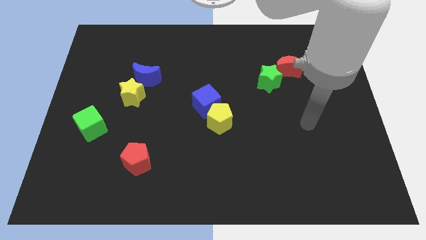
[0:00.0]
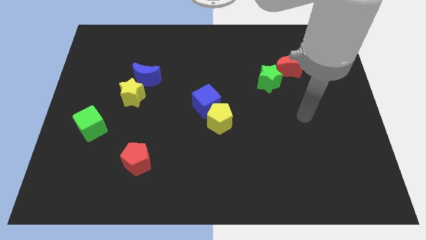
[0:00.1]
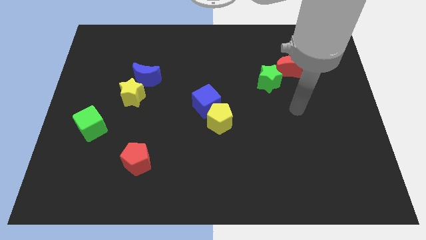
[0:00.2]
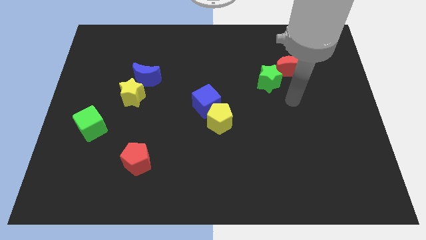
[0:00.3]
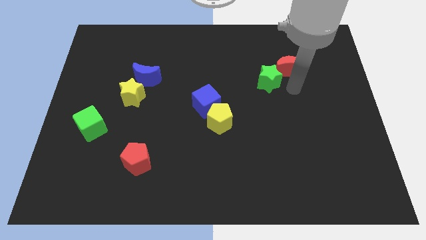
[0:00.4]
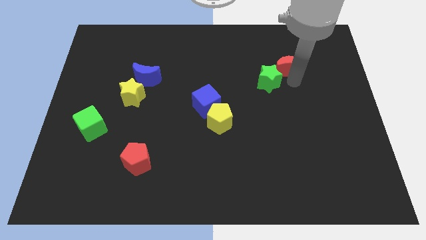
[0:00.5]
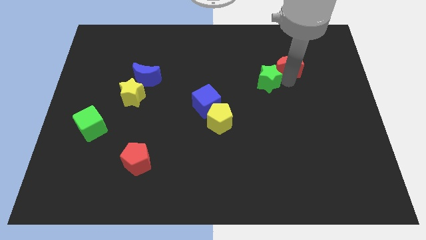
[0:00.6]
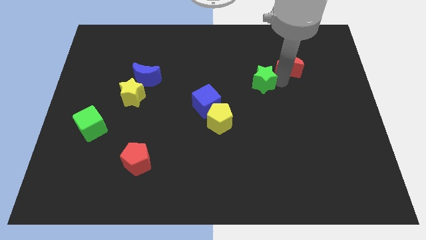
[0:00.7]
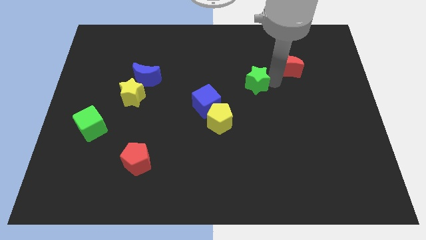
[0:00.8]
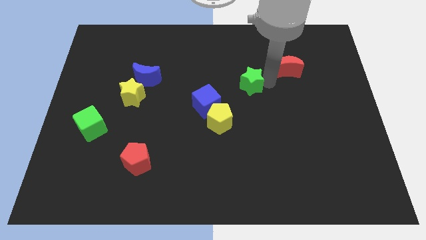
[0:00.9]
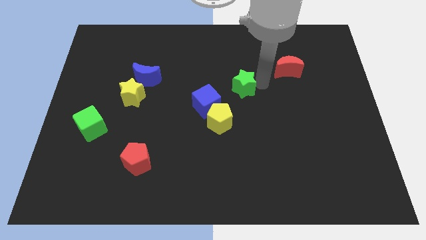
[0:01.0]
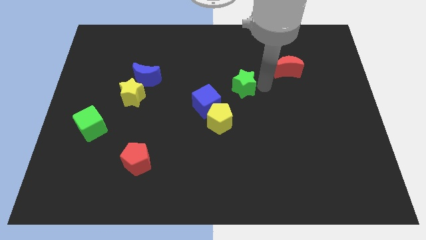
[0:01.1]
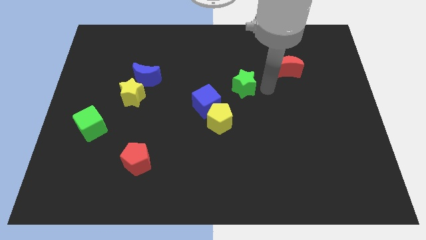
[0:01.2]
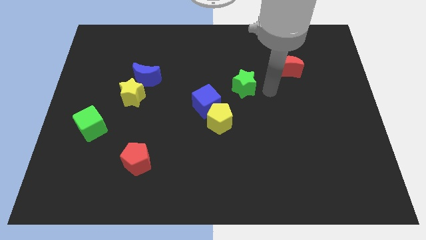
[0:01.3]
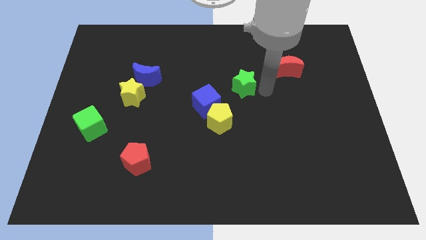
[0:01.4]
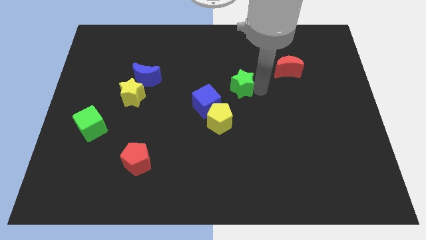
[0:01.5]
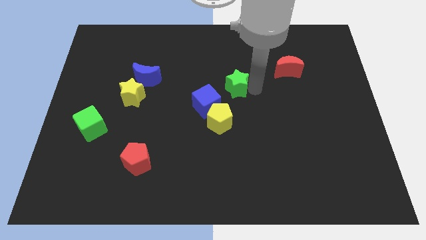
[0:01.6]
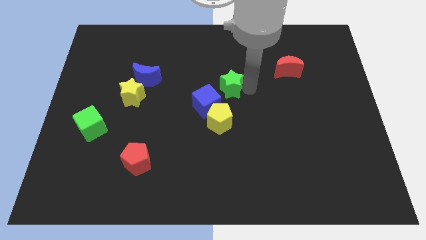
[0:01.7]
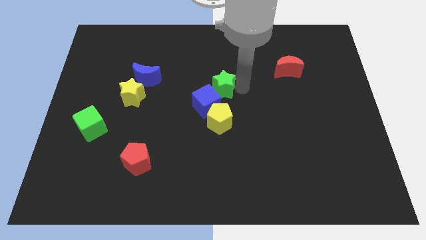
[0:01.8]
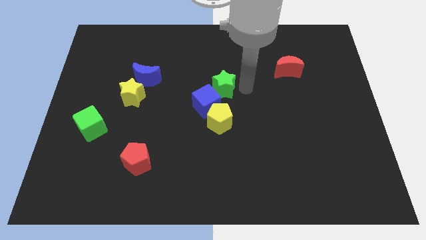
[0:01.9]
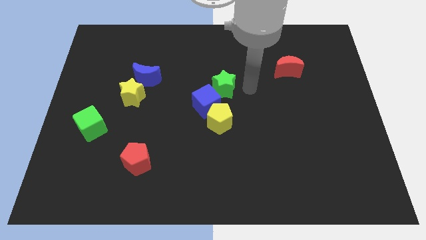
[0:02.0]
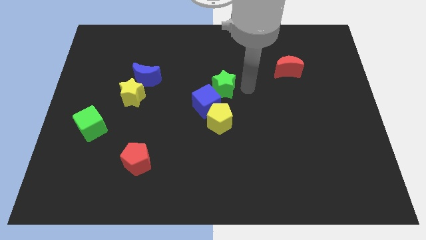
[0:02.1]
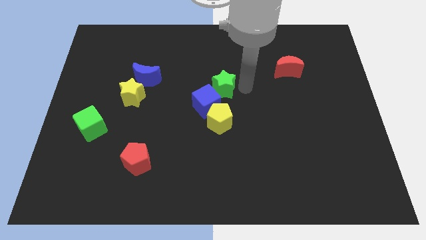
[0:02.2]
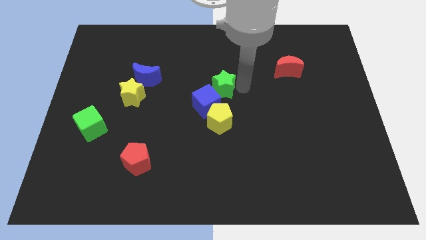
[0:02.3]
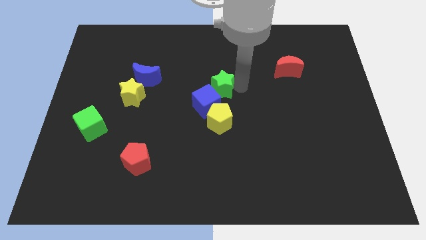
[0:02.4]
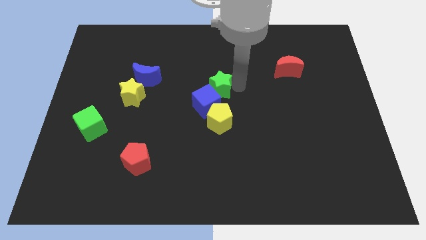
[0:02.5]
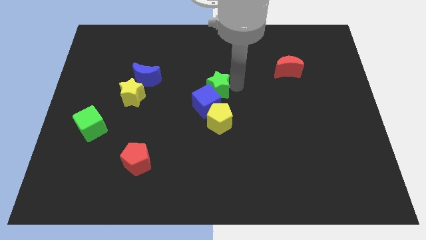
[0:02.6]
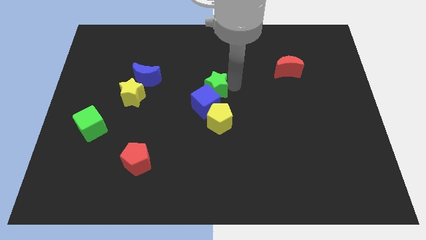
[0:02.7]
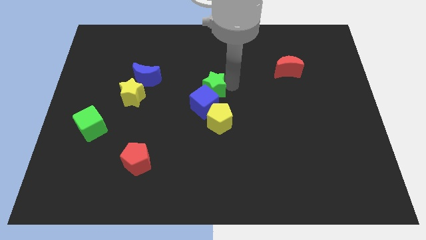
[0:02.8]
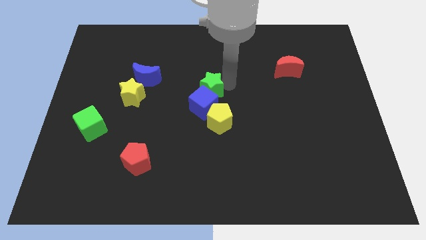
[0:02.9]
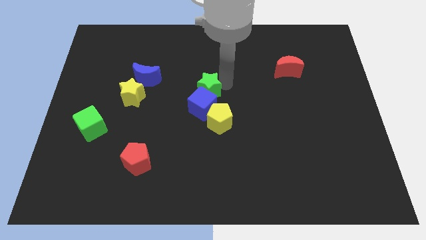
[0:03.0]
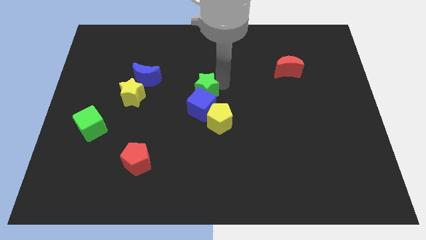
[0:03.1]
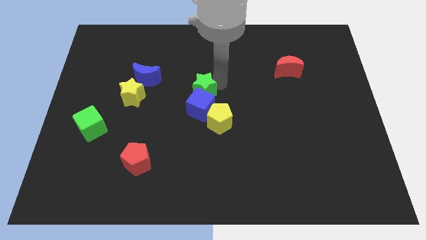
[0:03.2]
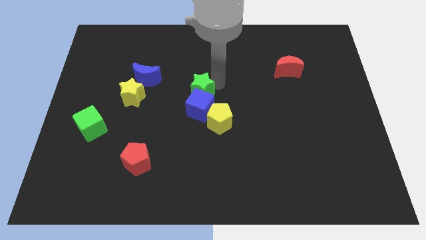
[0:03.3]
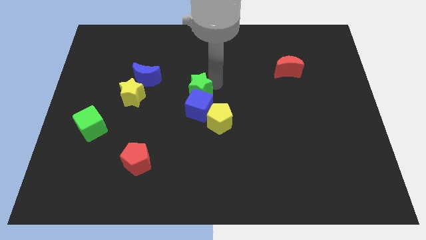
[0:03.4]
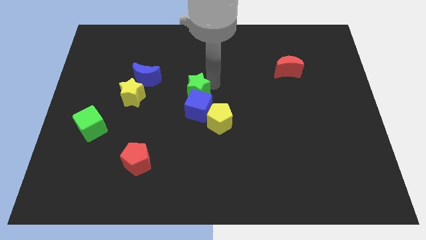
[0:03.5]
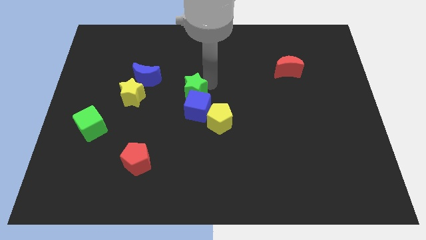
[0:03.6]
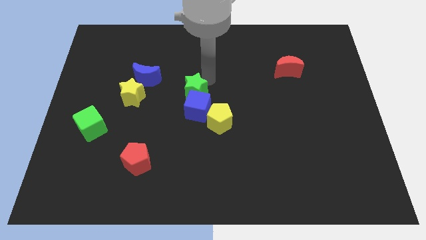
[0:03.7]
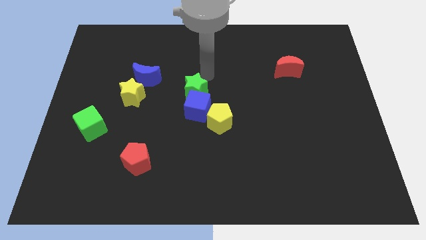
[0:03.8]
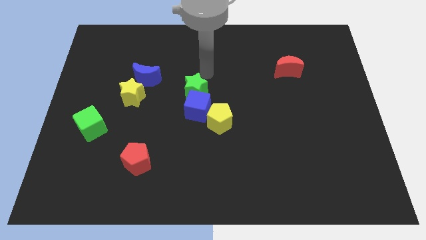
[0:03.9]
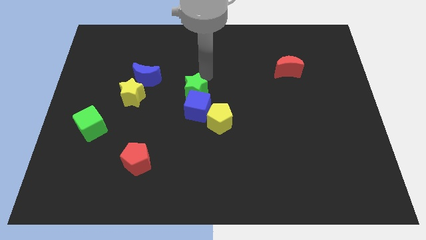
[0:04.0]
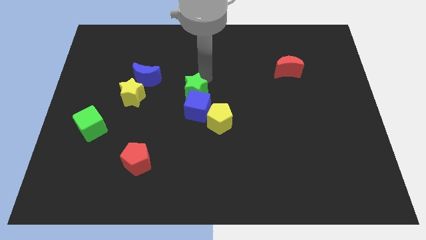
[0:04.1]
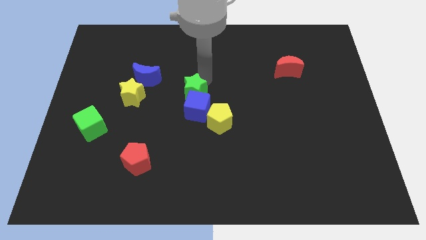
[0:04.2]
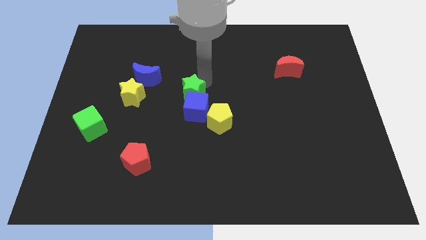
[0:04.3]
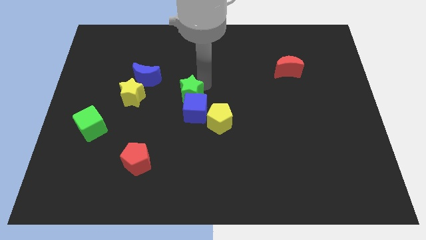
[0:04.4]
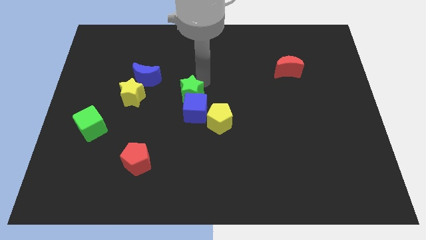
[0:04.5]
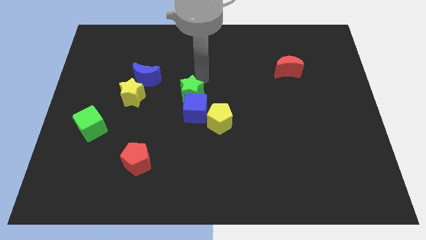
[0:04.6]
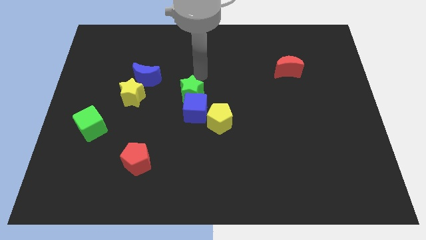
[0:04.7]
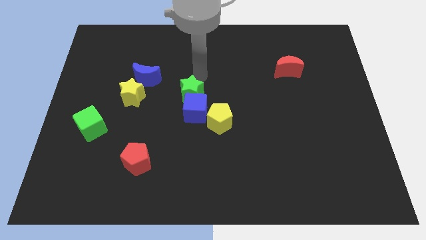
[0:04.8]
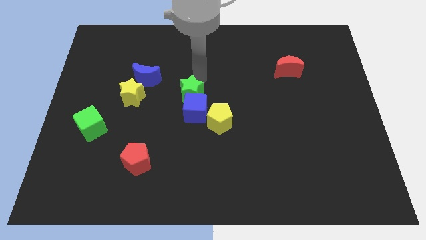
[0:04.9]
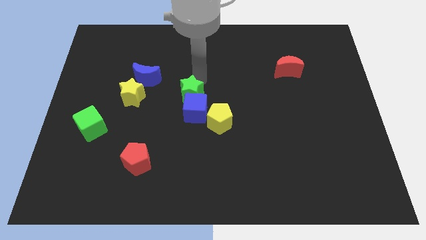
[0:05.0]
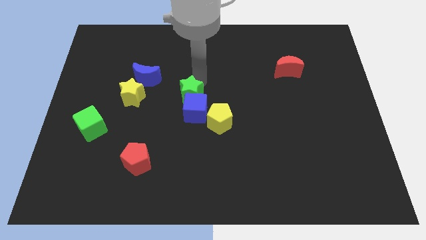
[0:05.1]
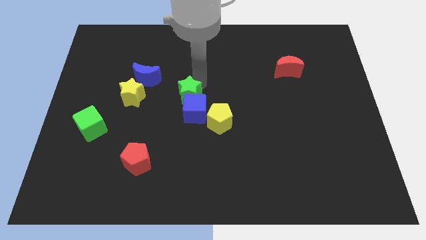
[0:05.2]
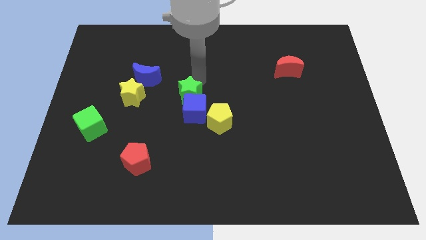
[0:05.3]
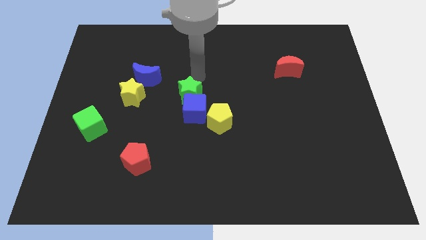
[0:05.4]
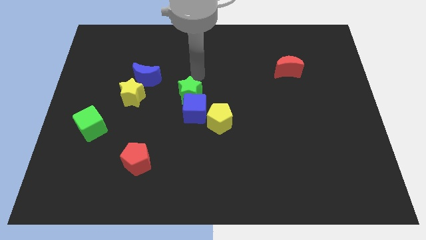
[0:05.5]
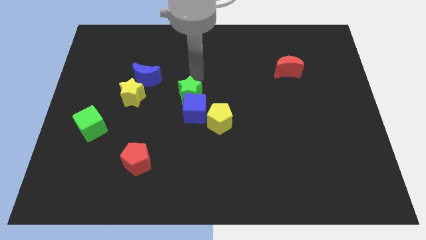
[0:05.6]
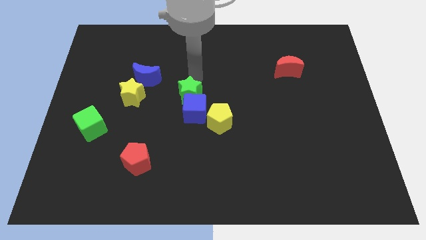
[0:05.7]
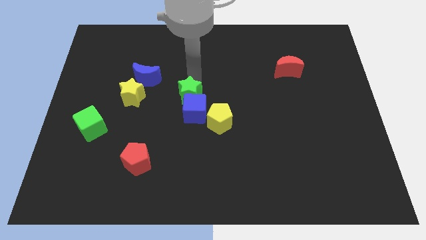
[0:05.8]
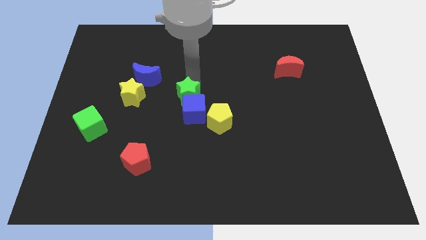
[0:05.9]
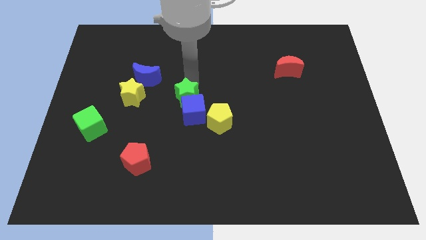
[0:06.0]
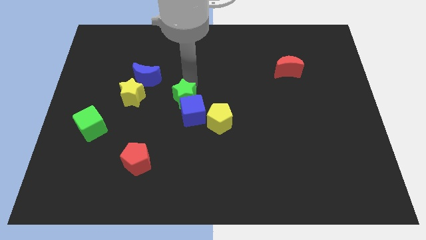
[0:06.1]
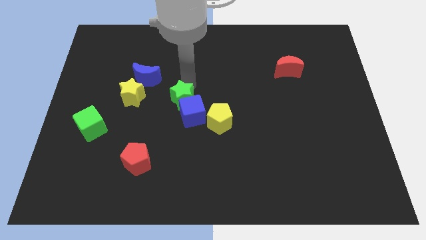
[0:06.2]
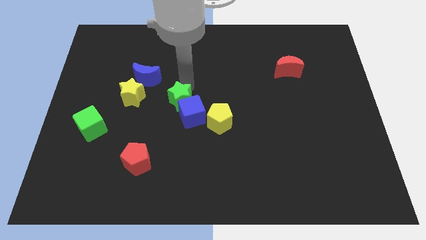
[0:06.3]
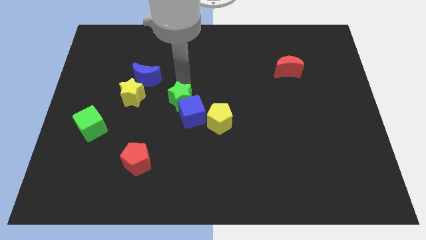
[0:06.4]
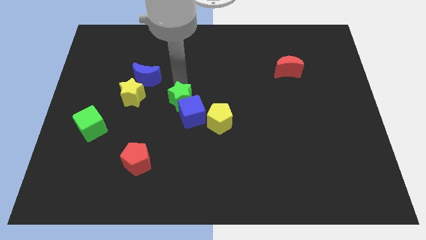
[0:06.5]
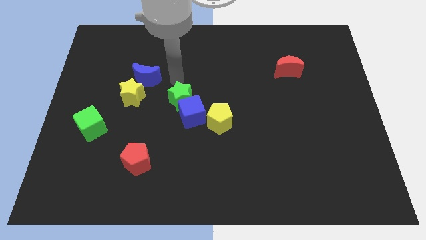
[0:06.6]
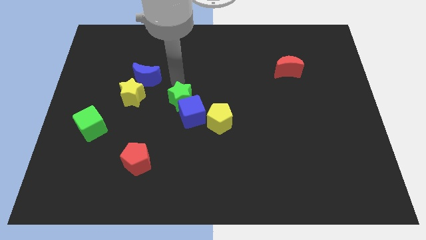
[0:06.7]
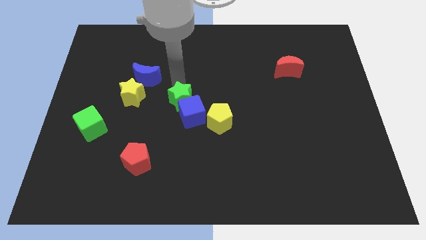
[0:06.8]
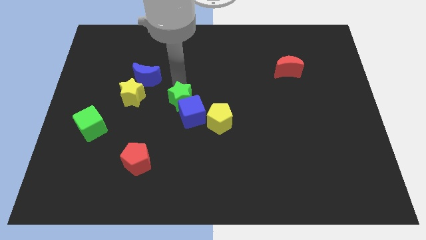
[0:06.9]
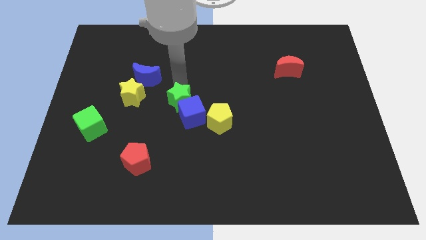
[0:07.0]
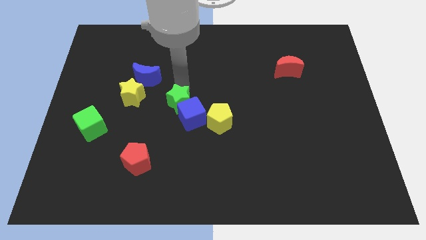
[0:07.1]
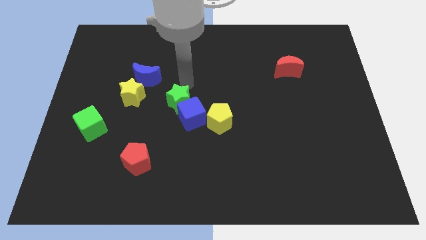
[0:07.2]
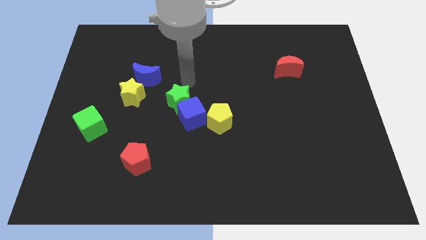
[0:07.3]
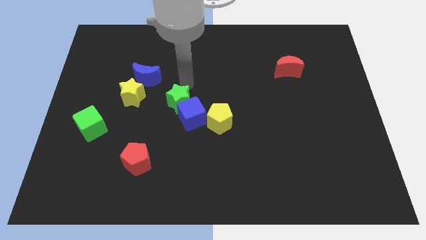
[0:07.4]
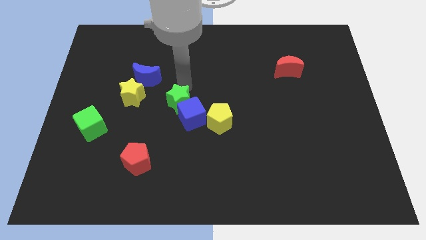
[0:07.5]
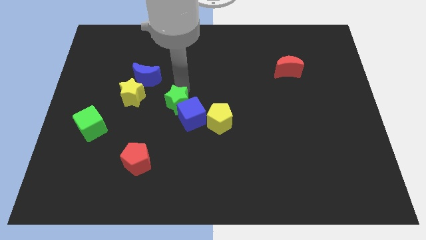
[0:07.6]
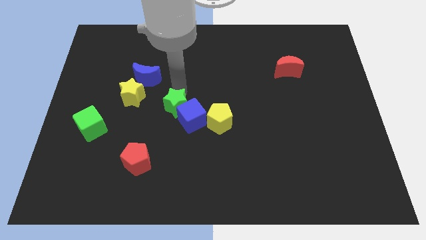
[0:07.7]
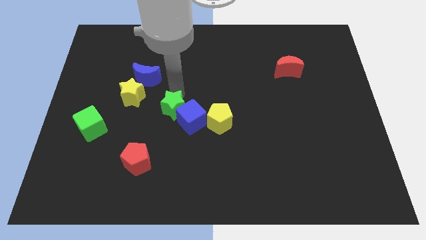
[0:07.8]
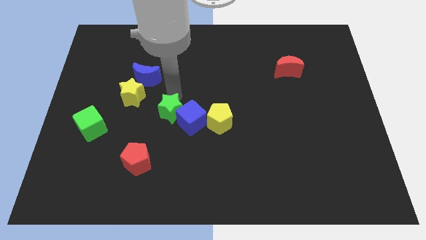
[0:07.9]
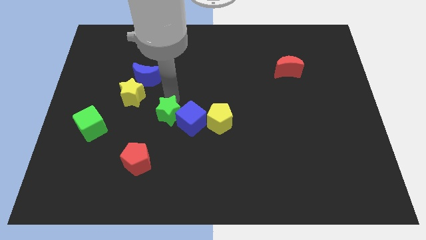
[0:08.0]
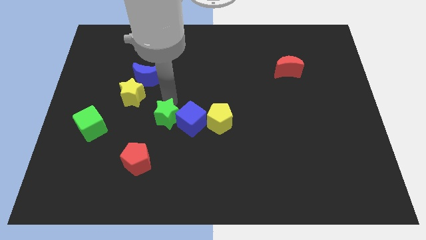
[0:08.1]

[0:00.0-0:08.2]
slide the green star diagonally down and to the left of the blue cube
